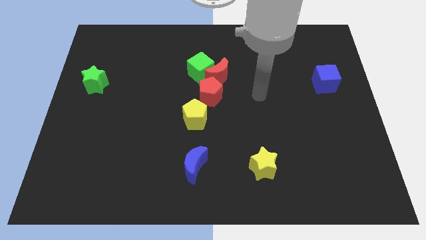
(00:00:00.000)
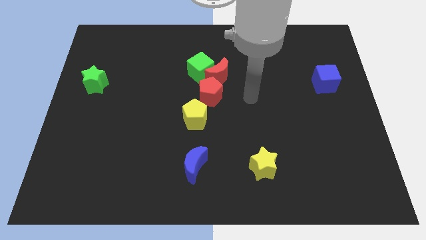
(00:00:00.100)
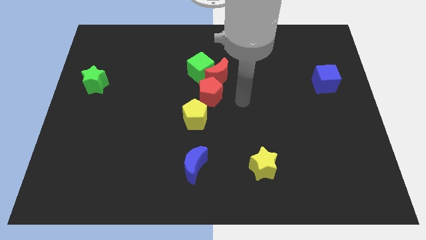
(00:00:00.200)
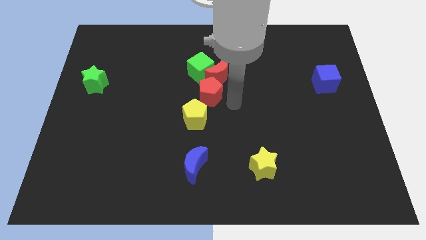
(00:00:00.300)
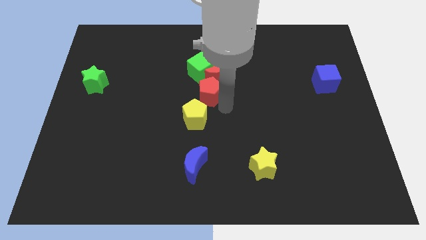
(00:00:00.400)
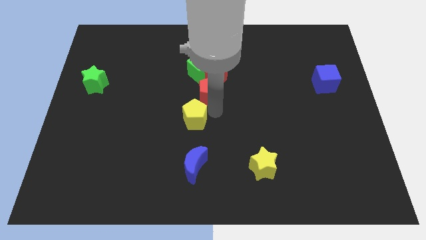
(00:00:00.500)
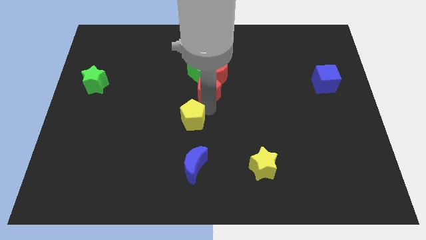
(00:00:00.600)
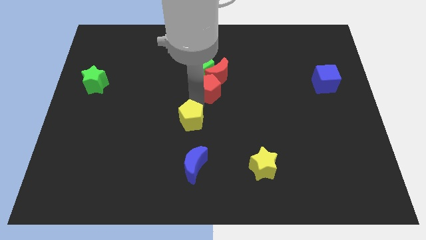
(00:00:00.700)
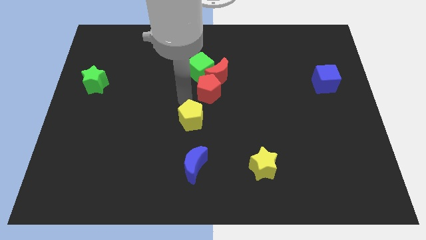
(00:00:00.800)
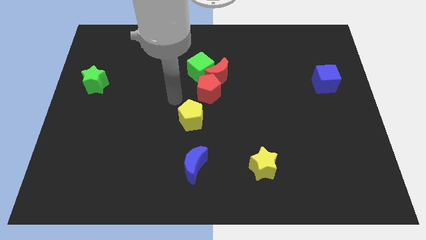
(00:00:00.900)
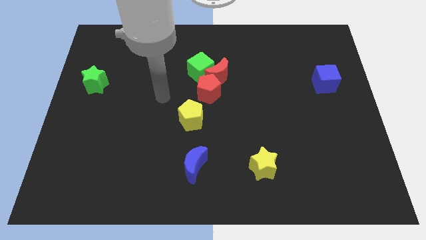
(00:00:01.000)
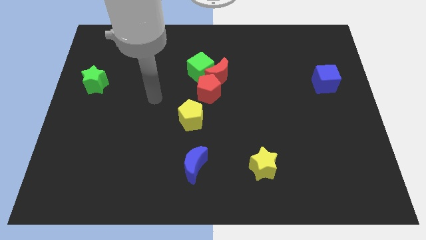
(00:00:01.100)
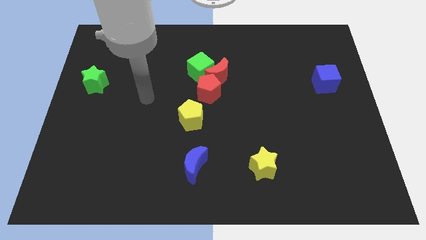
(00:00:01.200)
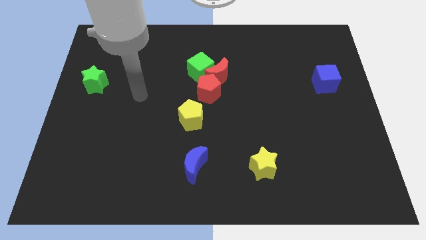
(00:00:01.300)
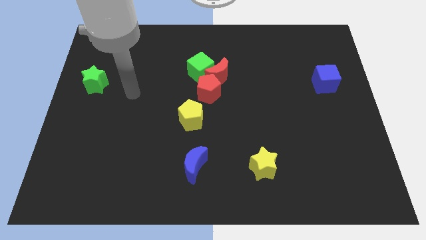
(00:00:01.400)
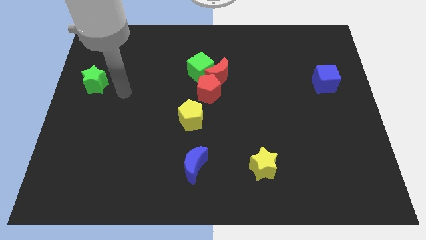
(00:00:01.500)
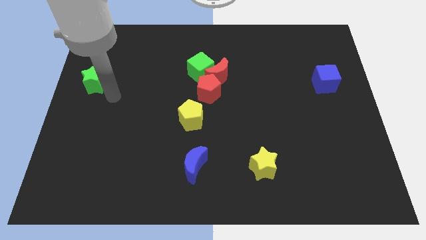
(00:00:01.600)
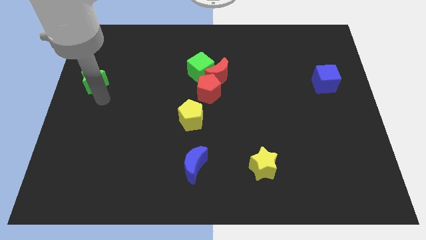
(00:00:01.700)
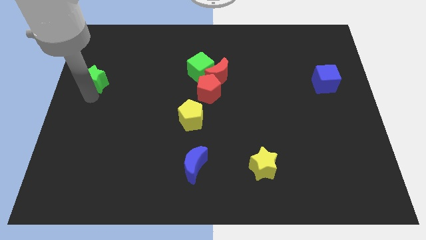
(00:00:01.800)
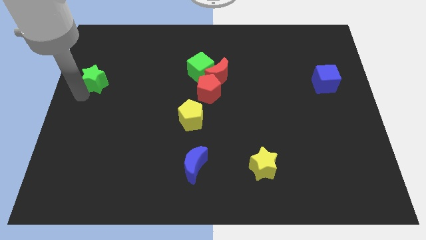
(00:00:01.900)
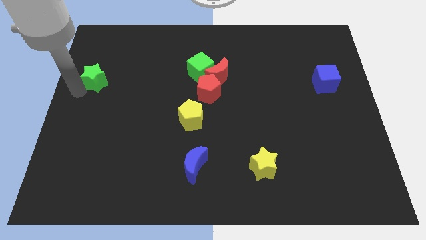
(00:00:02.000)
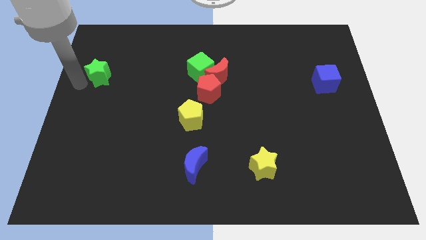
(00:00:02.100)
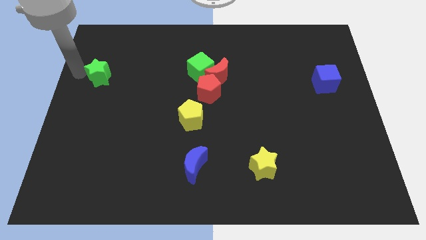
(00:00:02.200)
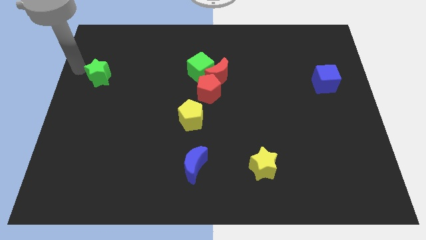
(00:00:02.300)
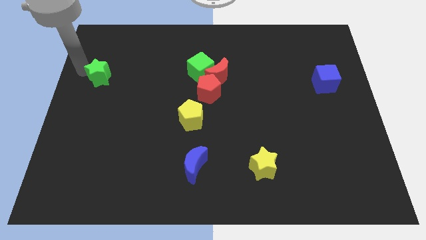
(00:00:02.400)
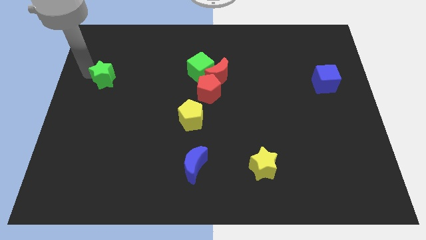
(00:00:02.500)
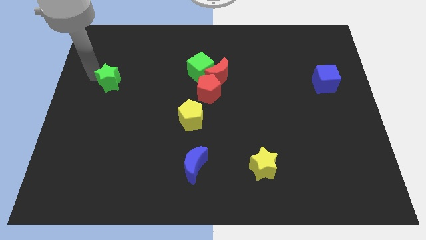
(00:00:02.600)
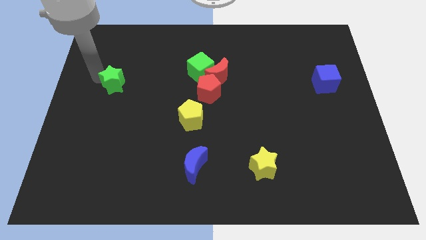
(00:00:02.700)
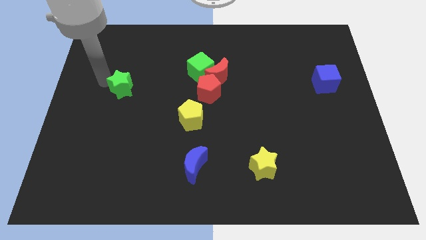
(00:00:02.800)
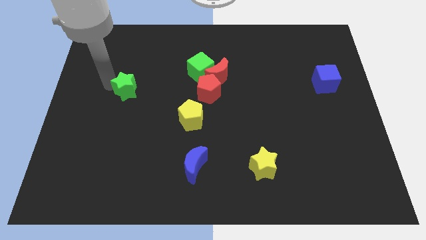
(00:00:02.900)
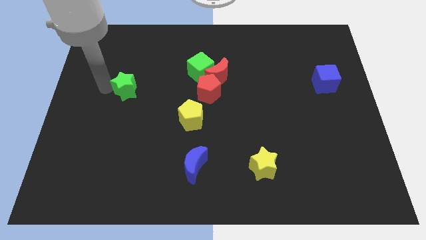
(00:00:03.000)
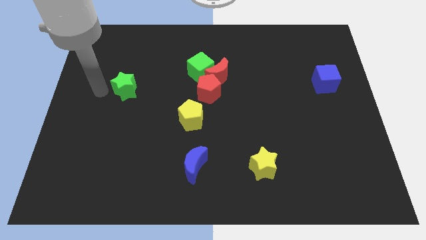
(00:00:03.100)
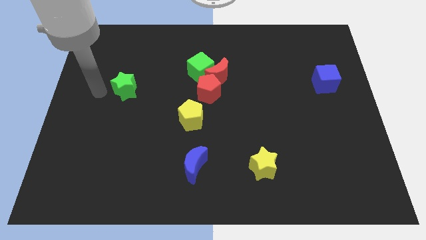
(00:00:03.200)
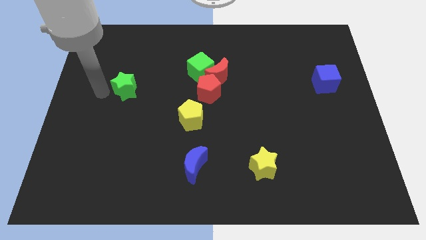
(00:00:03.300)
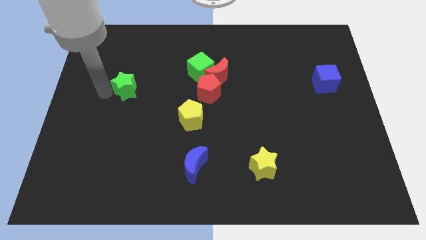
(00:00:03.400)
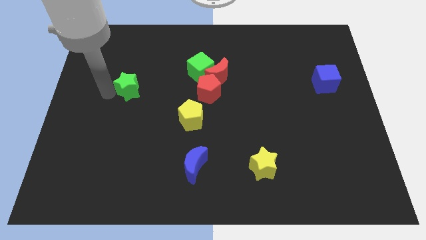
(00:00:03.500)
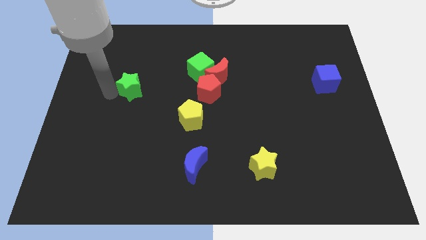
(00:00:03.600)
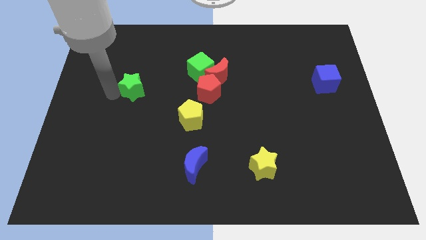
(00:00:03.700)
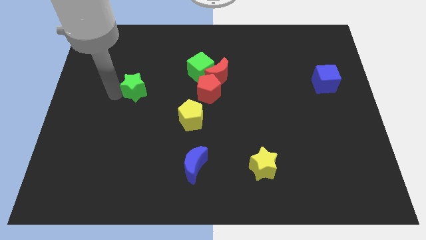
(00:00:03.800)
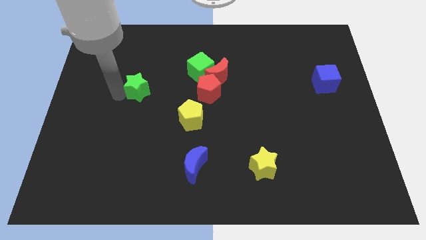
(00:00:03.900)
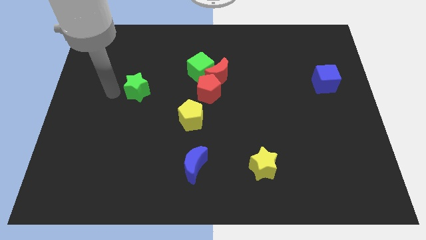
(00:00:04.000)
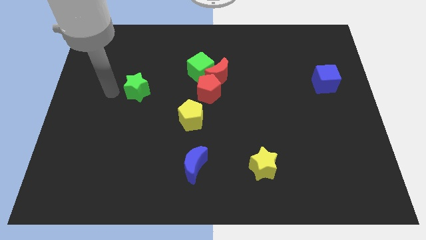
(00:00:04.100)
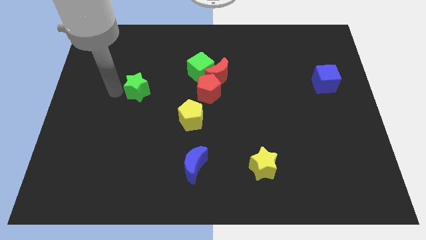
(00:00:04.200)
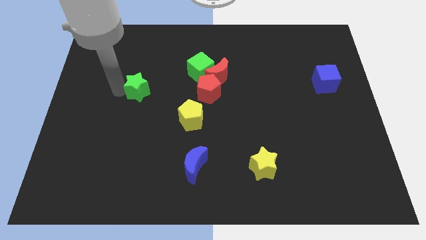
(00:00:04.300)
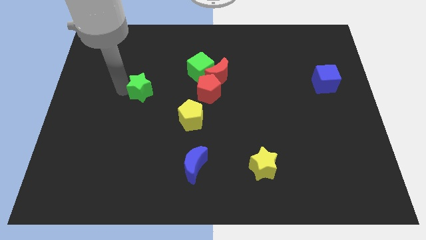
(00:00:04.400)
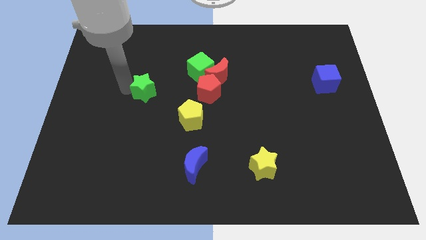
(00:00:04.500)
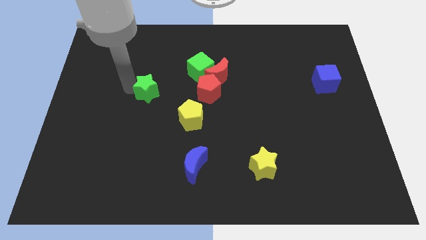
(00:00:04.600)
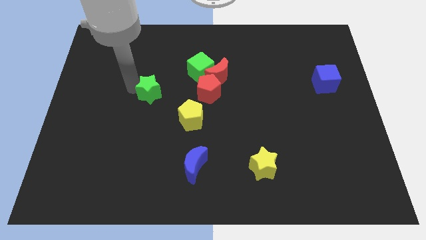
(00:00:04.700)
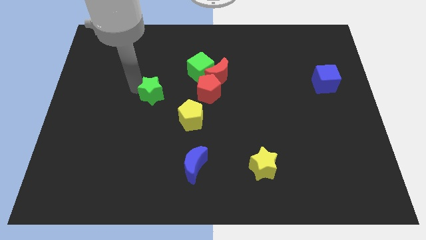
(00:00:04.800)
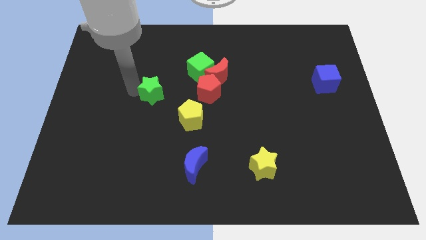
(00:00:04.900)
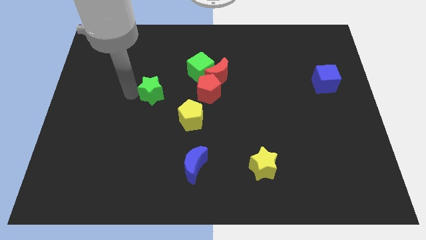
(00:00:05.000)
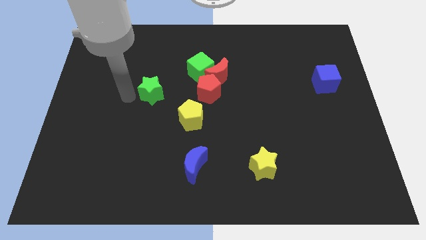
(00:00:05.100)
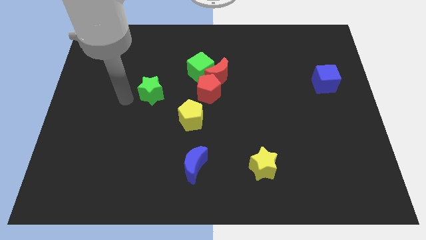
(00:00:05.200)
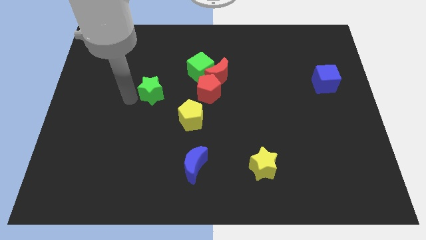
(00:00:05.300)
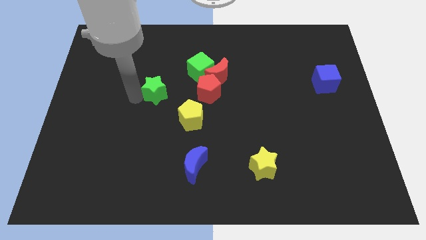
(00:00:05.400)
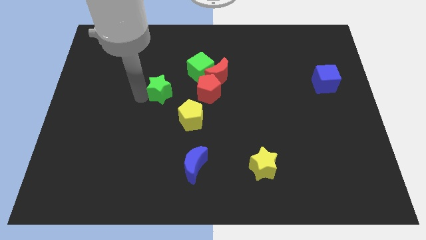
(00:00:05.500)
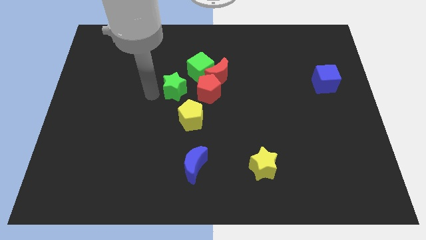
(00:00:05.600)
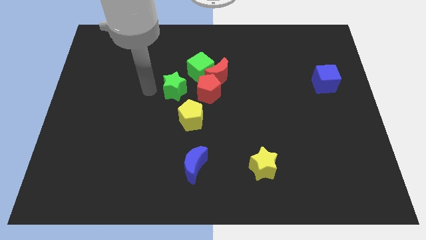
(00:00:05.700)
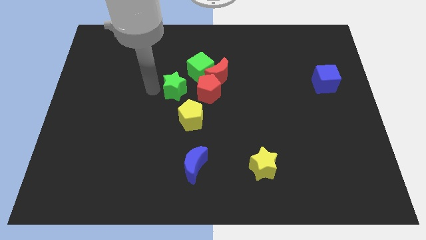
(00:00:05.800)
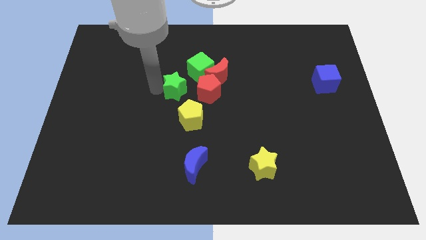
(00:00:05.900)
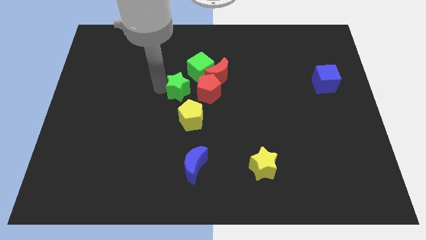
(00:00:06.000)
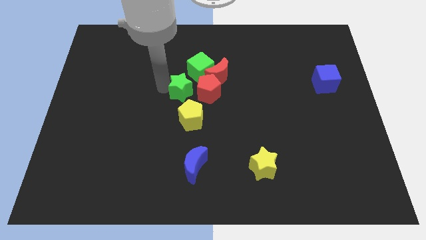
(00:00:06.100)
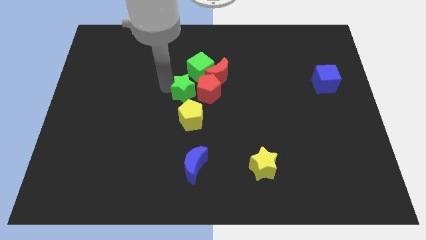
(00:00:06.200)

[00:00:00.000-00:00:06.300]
put the green star next to the red pentagon

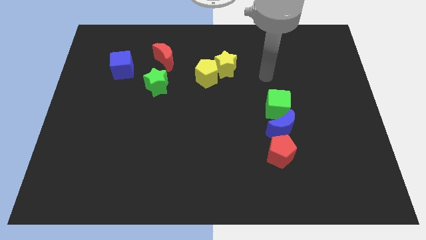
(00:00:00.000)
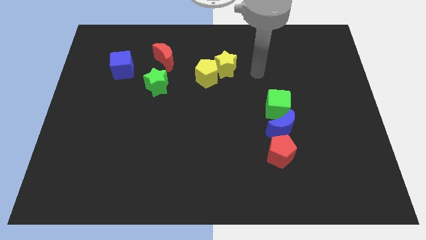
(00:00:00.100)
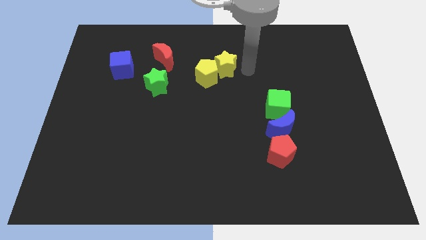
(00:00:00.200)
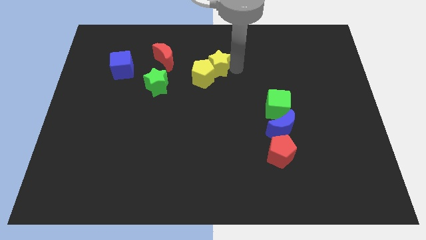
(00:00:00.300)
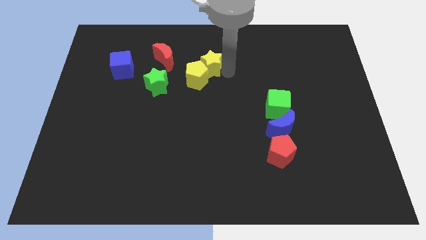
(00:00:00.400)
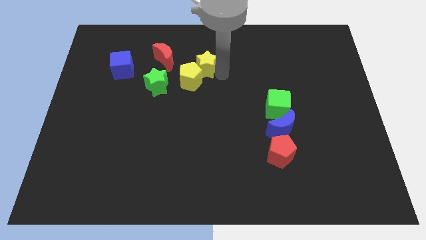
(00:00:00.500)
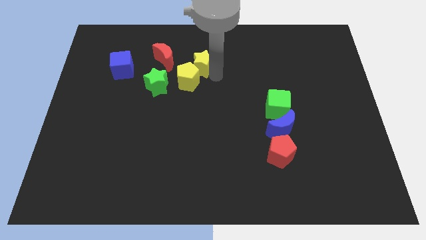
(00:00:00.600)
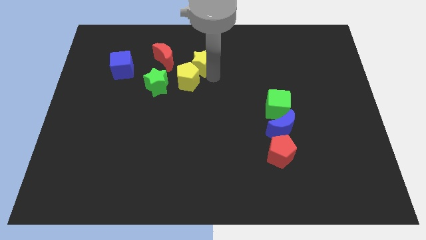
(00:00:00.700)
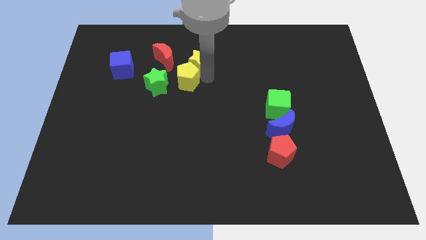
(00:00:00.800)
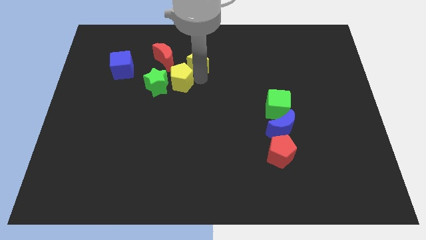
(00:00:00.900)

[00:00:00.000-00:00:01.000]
slide the yellow pentagon next to the green star

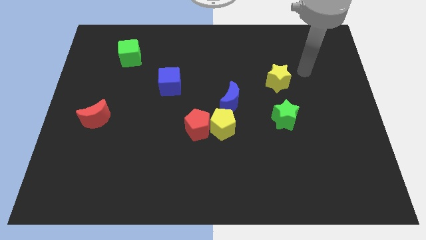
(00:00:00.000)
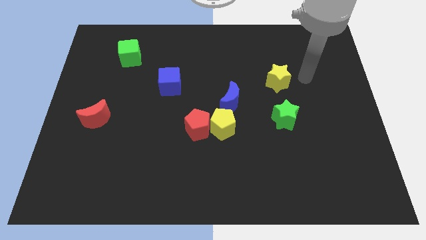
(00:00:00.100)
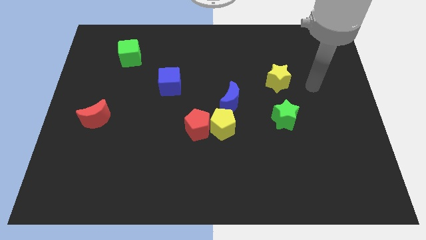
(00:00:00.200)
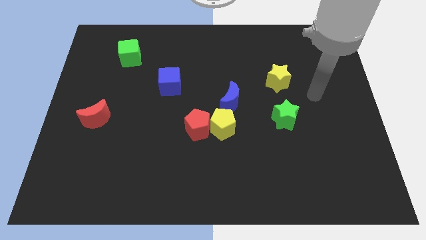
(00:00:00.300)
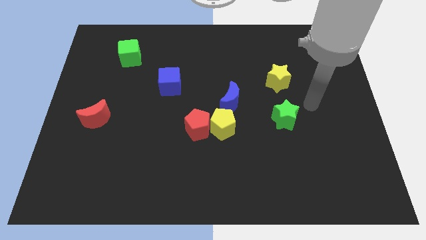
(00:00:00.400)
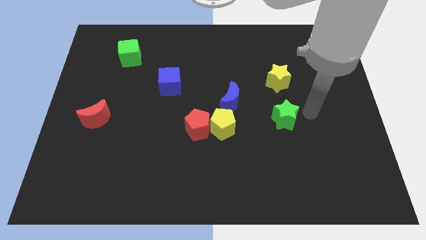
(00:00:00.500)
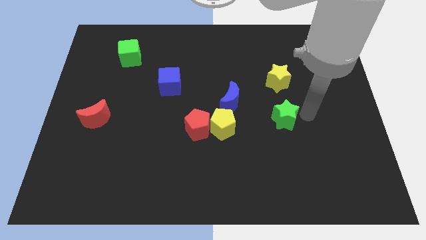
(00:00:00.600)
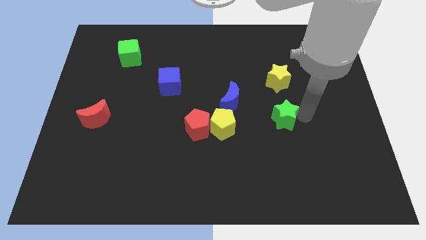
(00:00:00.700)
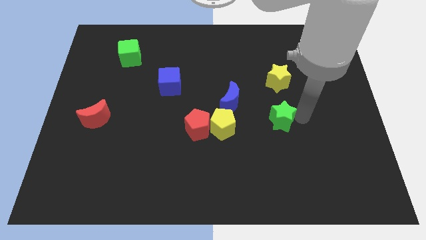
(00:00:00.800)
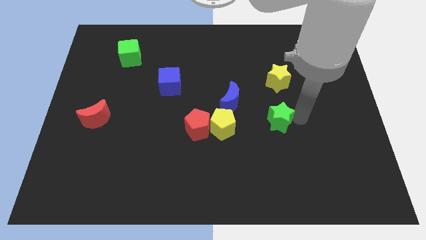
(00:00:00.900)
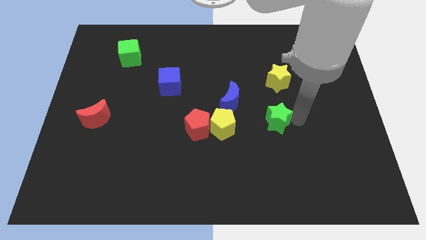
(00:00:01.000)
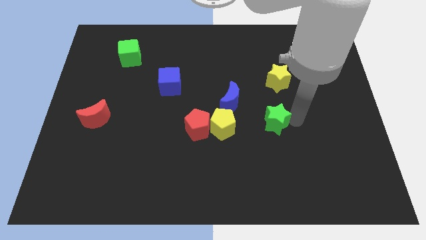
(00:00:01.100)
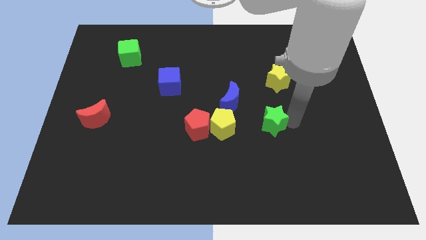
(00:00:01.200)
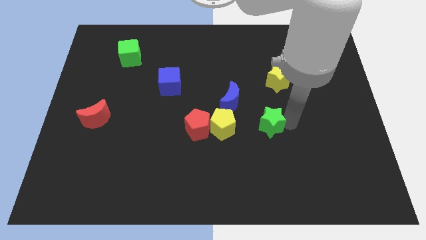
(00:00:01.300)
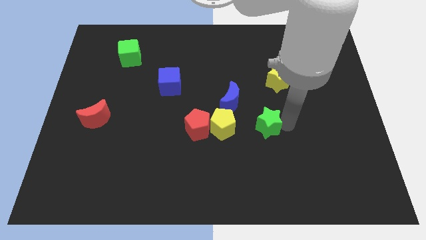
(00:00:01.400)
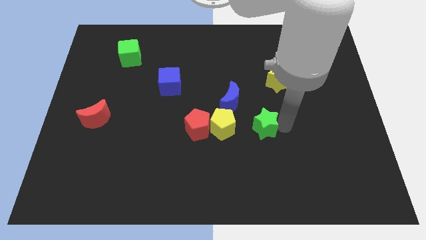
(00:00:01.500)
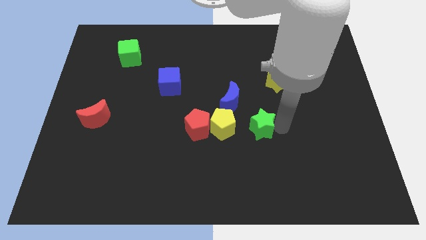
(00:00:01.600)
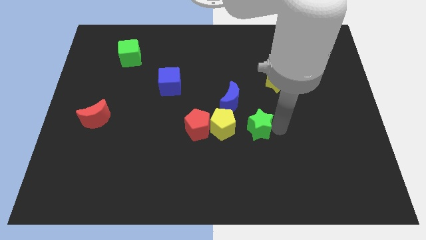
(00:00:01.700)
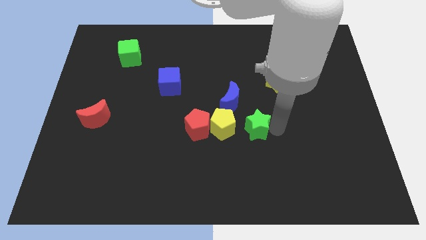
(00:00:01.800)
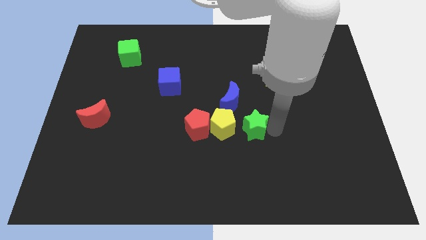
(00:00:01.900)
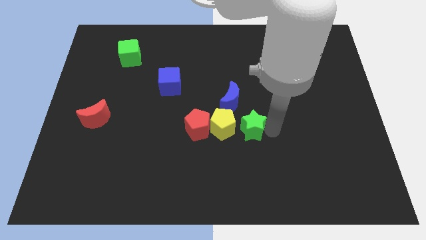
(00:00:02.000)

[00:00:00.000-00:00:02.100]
push the green star towards the yellow pentagon
